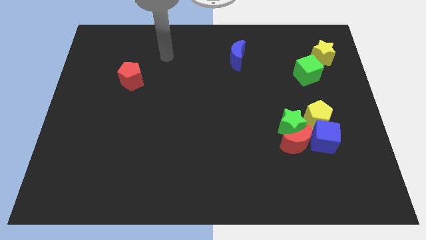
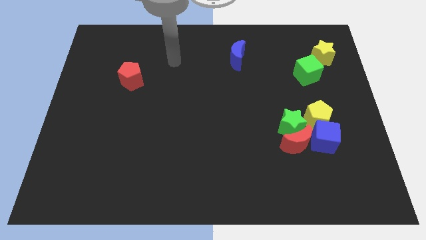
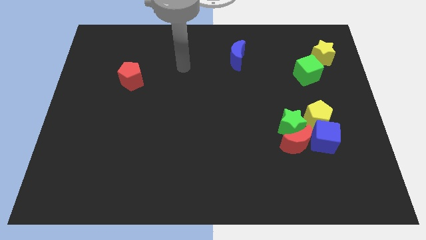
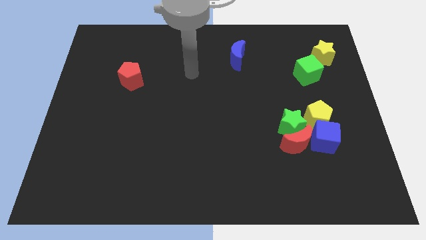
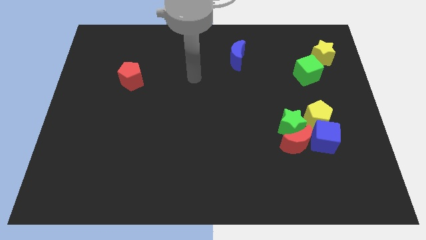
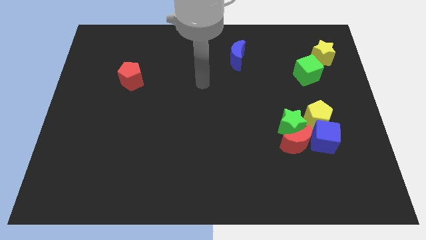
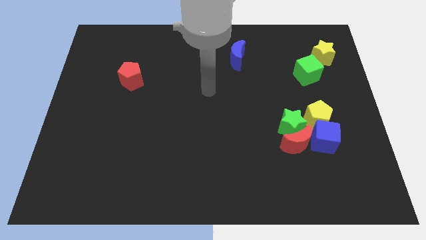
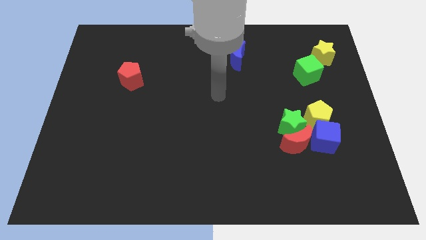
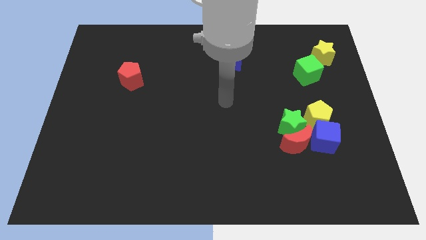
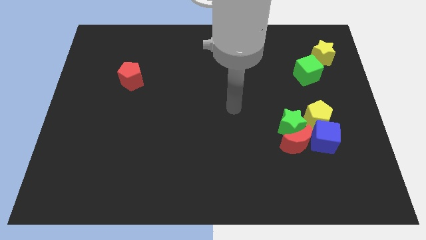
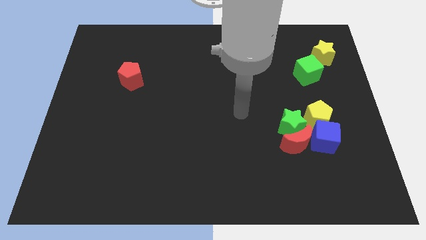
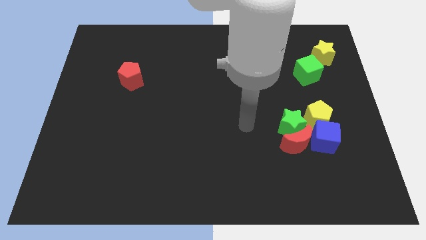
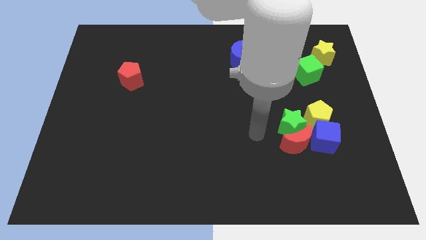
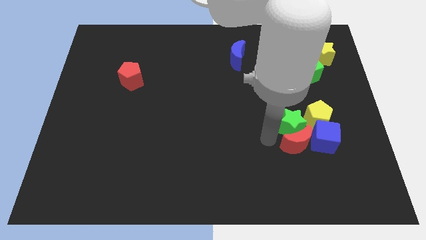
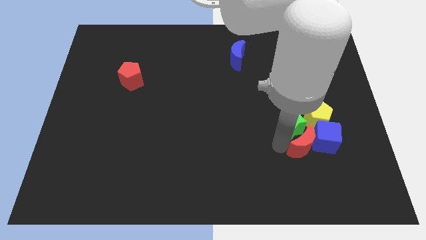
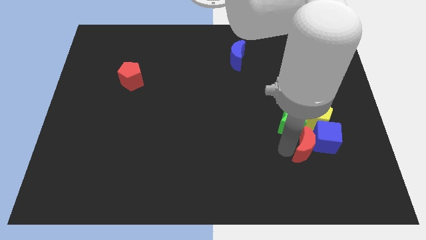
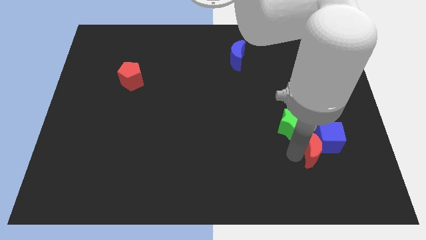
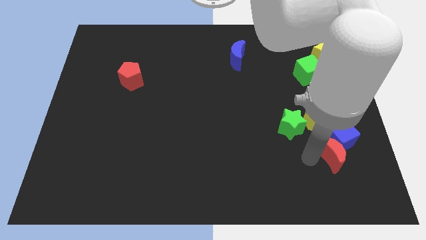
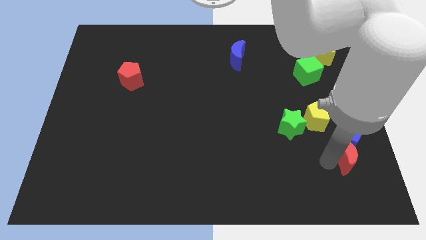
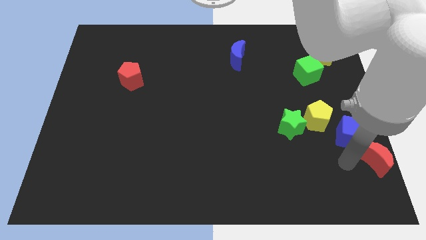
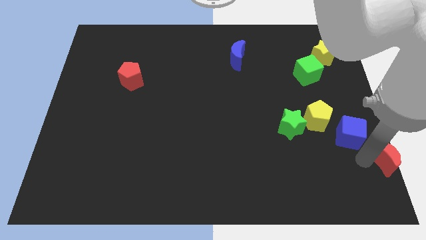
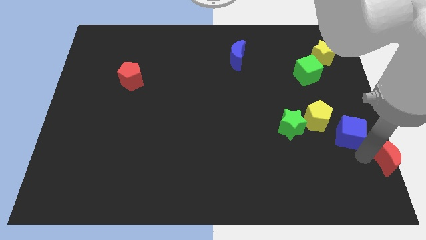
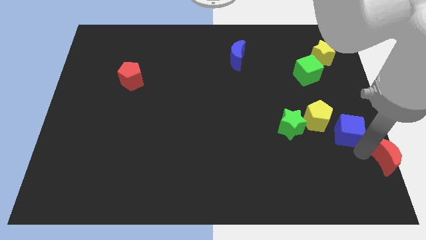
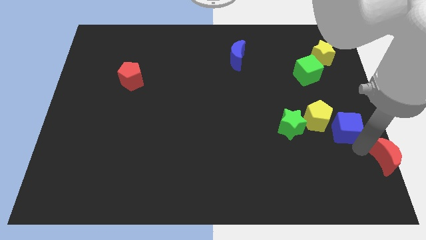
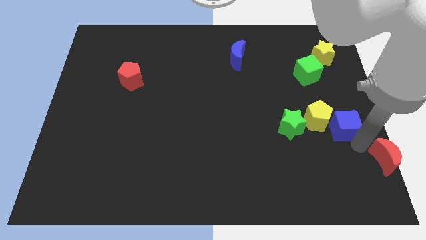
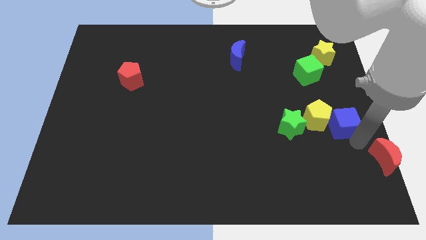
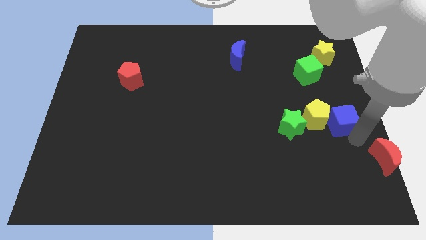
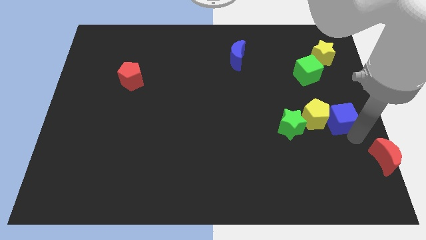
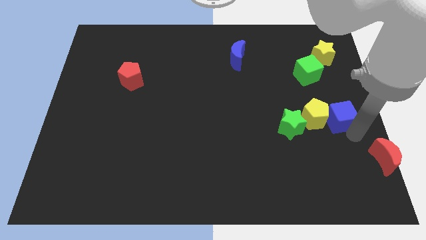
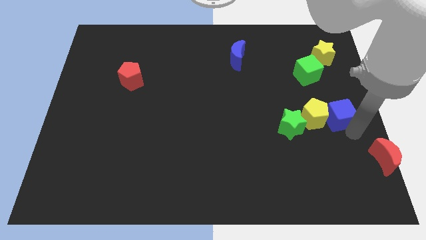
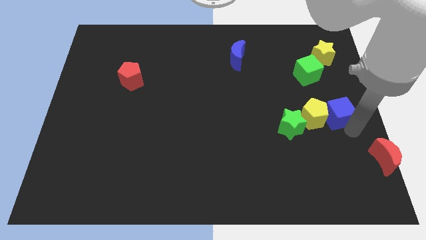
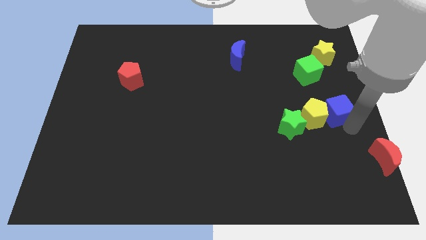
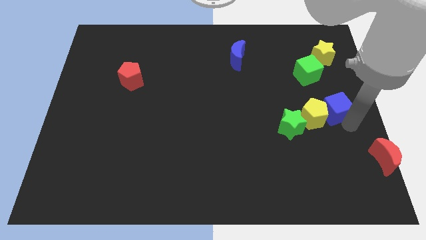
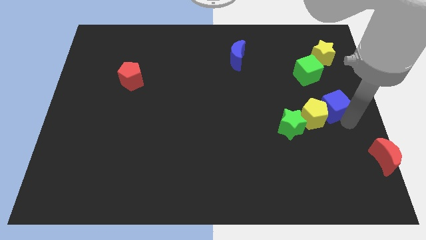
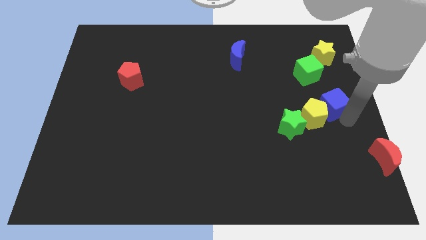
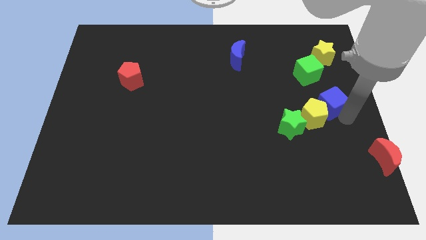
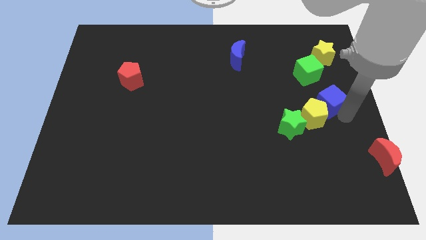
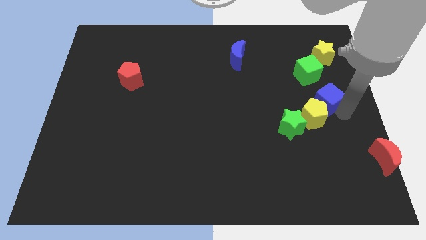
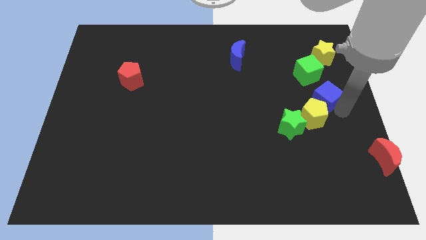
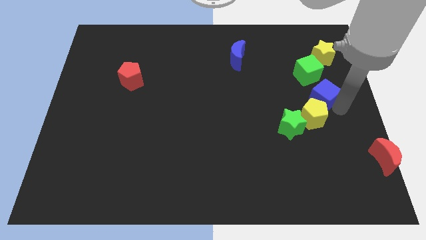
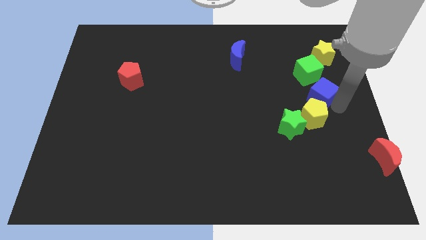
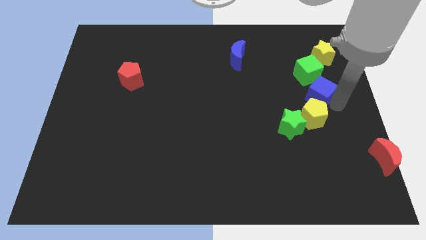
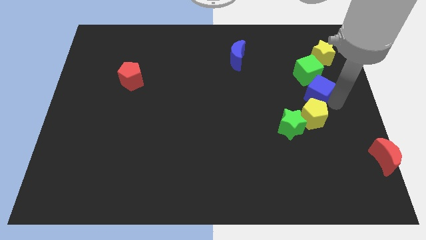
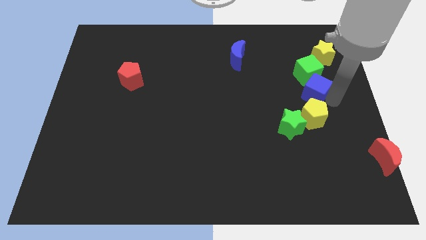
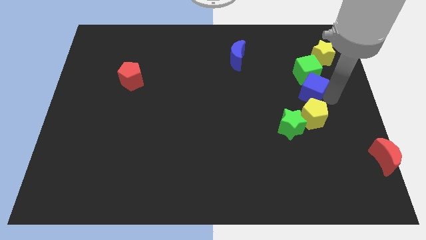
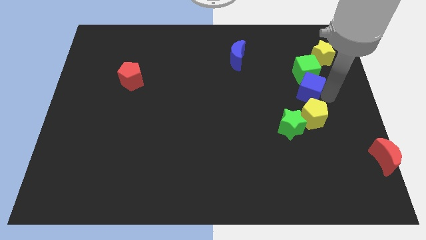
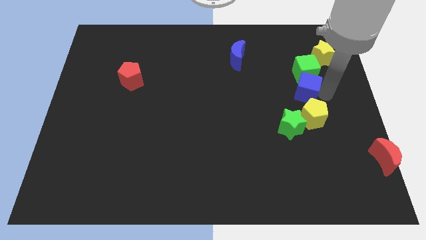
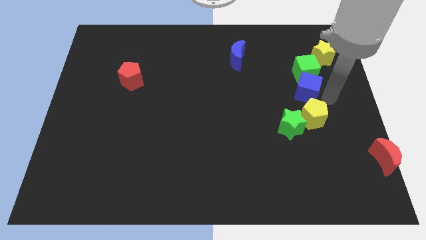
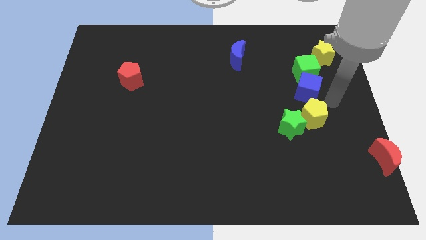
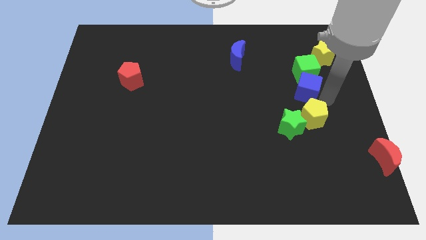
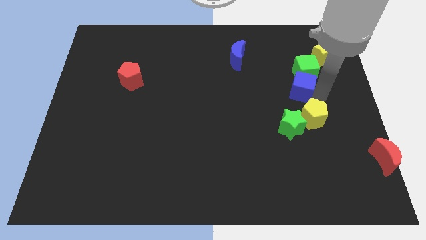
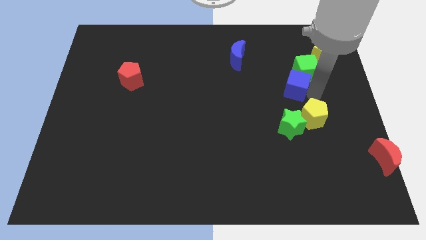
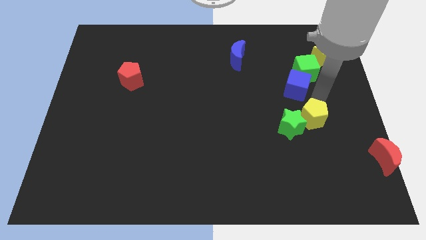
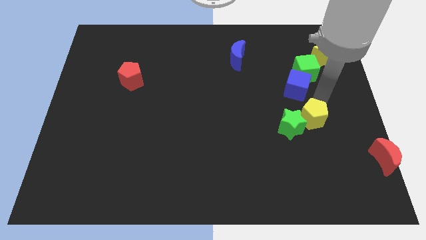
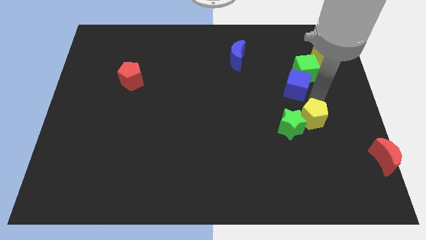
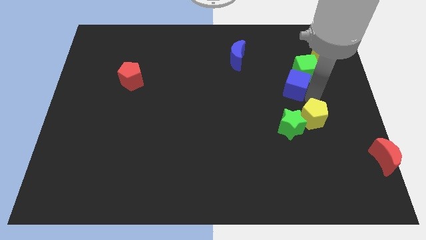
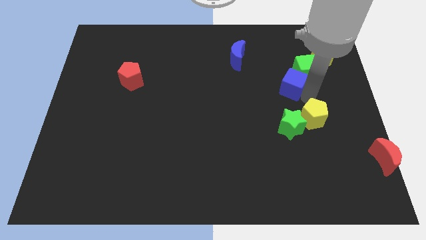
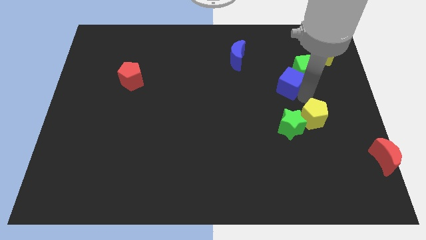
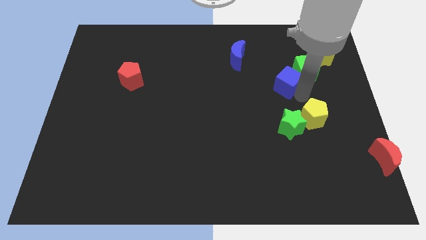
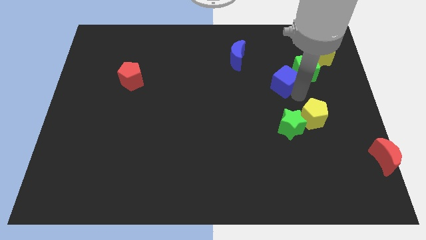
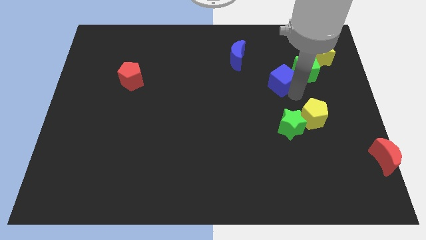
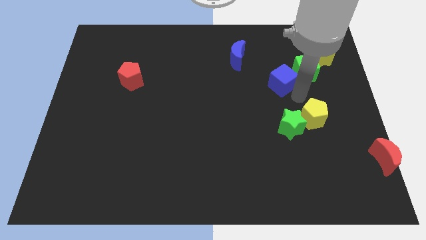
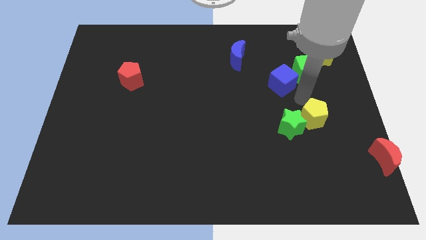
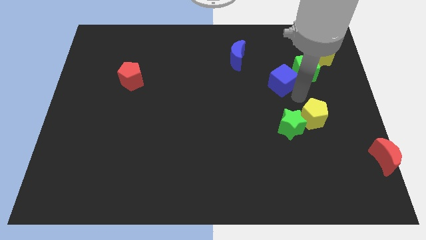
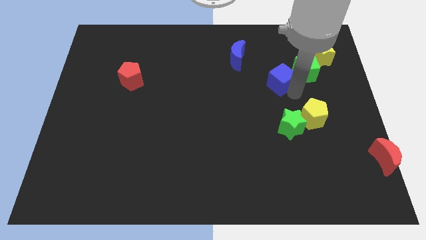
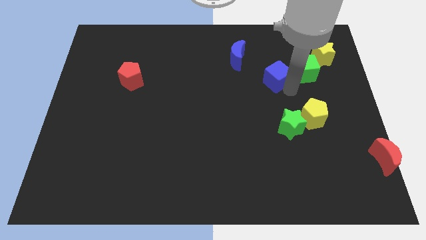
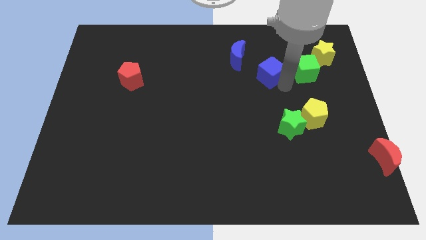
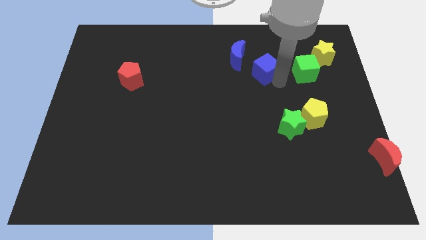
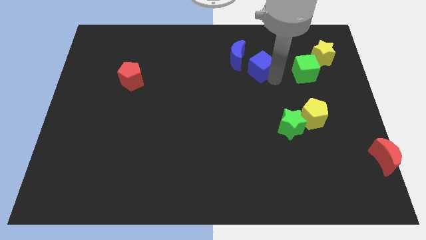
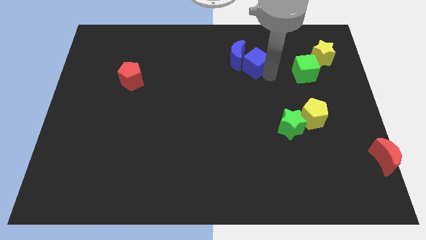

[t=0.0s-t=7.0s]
slide the blue cube towards the blue moon

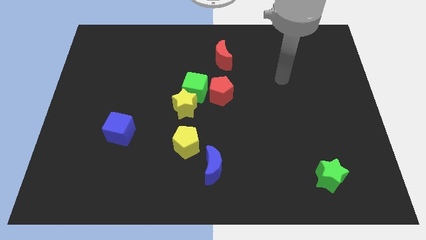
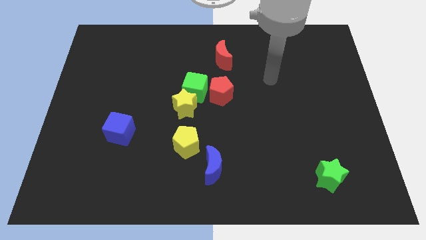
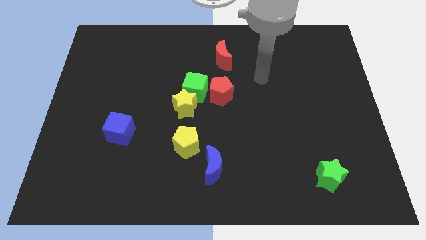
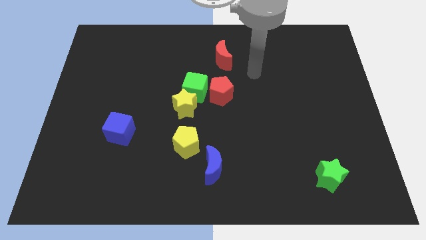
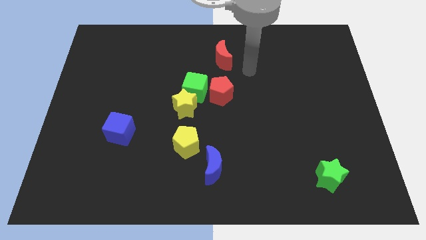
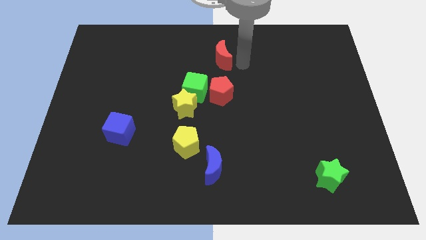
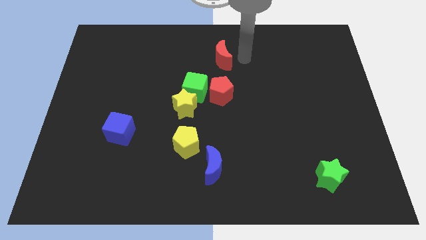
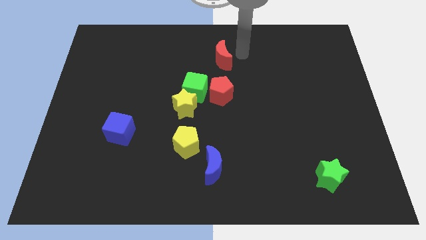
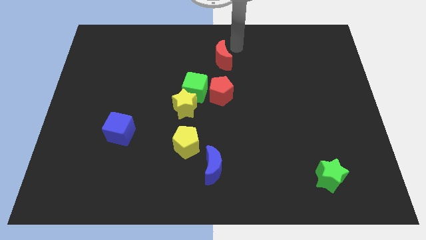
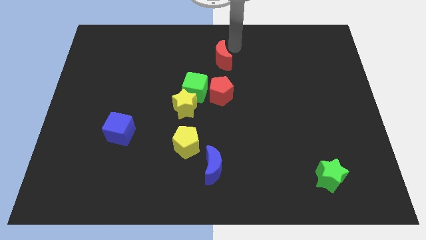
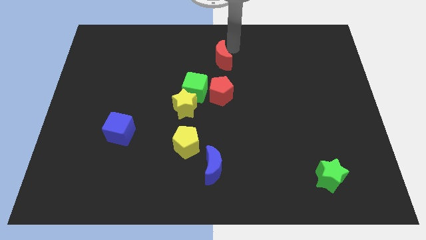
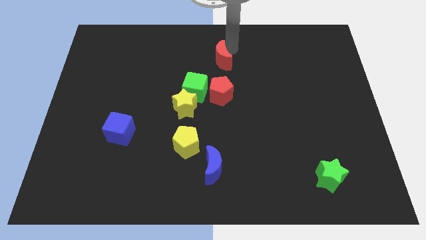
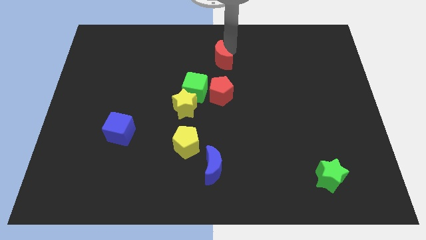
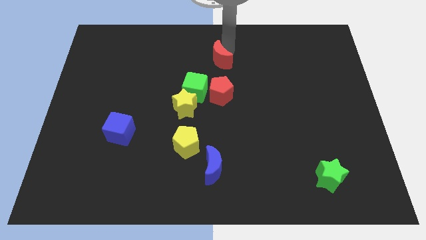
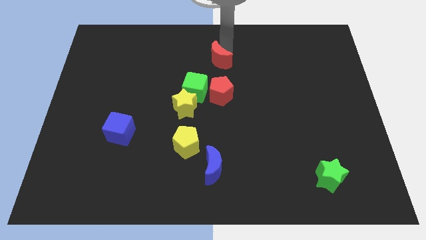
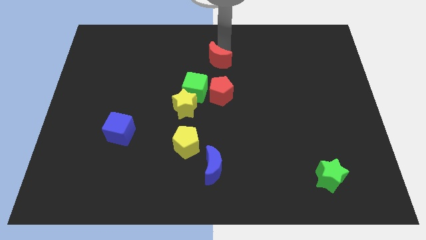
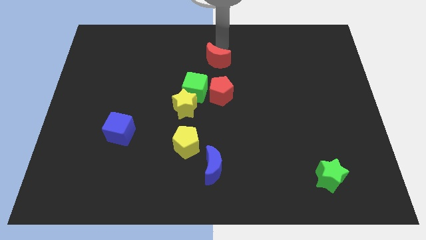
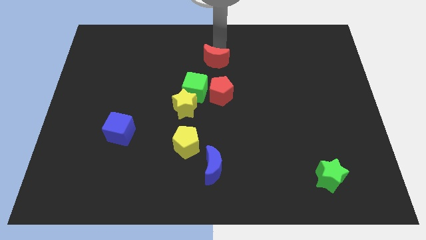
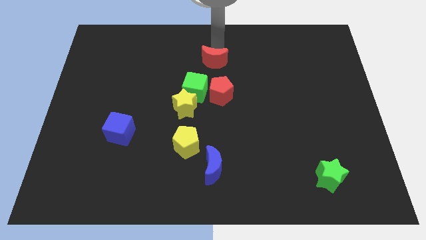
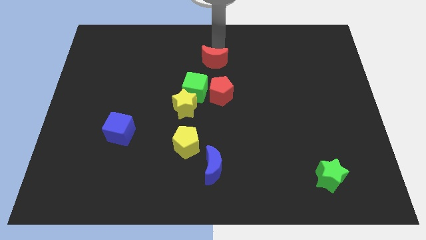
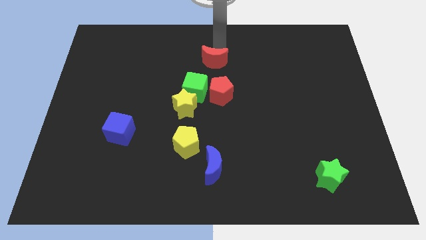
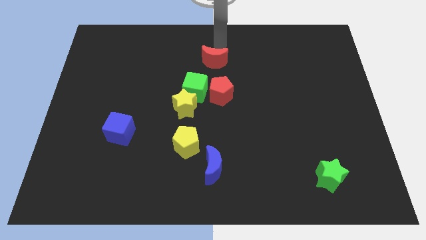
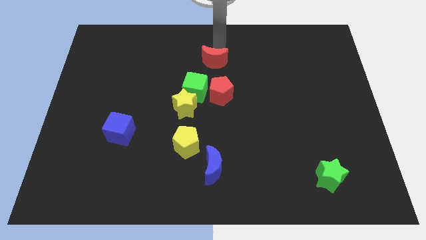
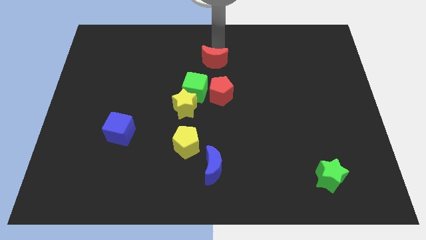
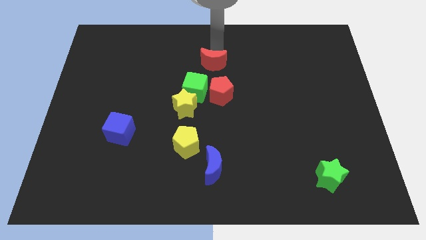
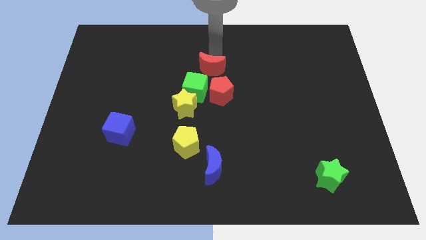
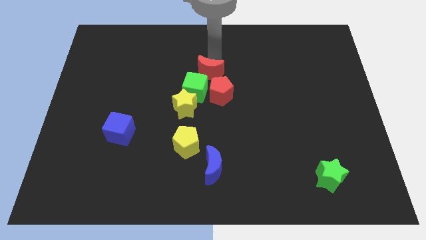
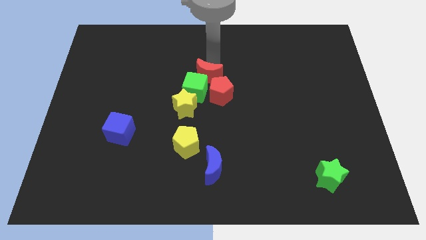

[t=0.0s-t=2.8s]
slide the red moon close to the green cube
